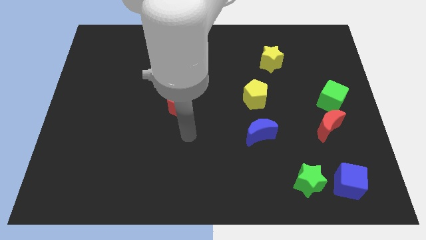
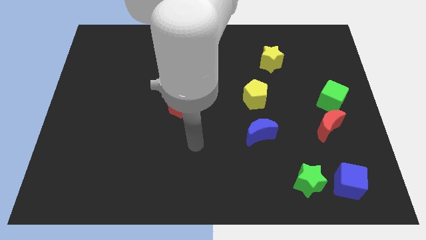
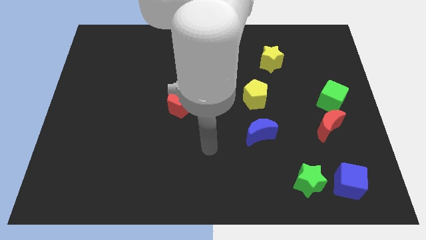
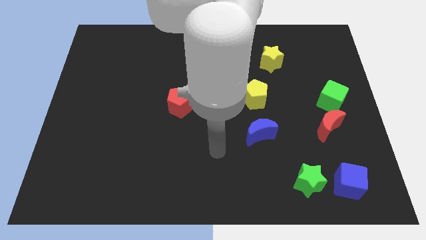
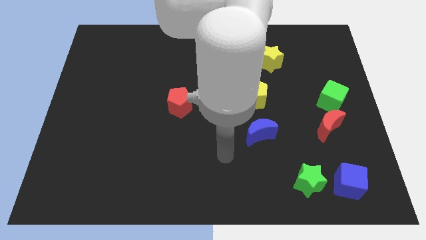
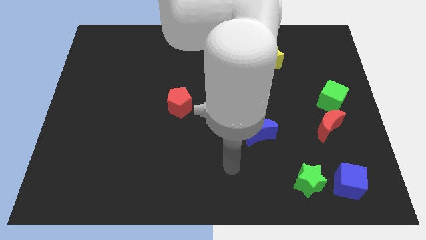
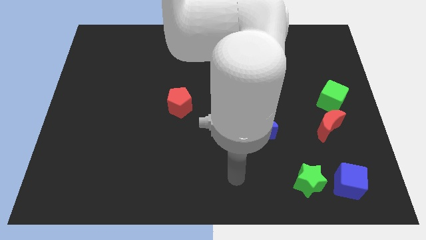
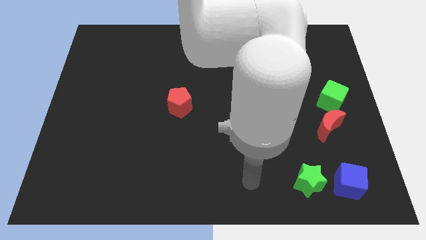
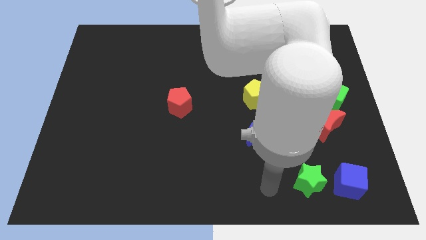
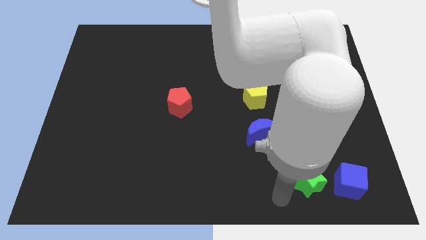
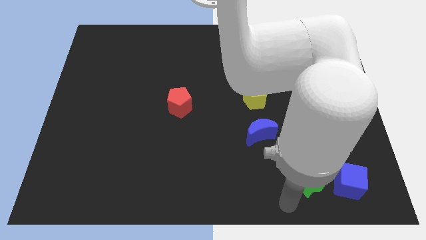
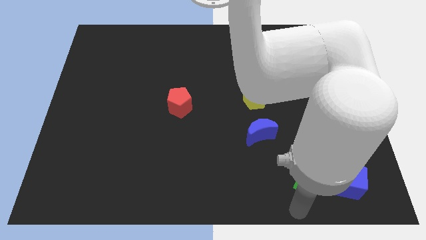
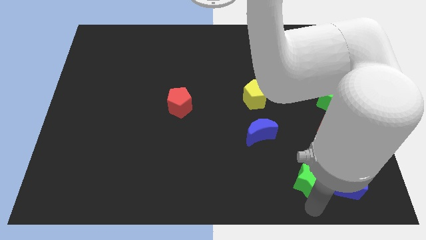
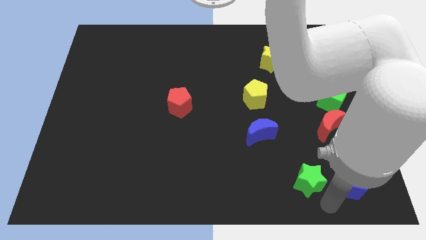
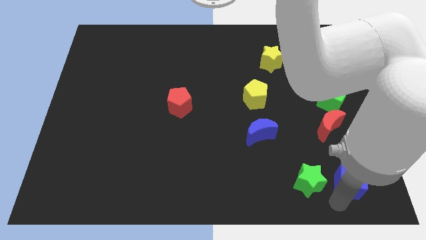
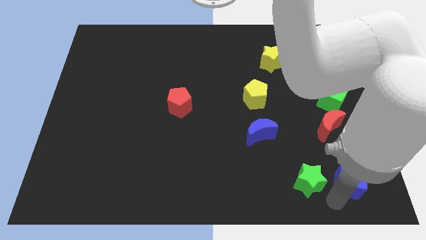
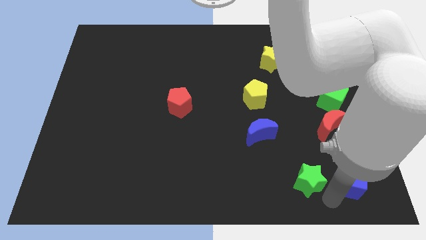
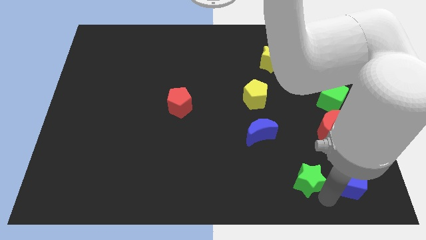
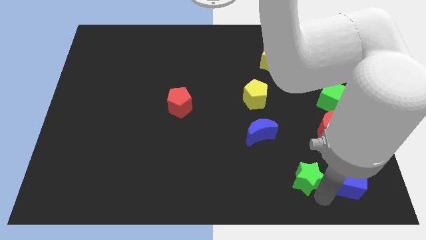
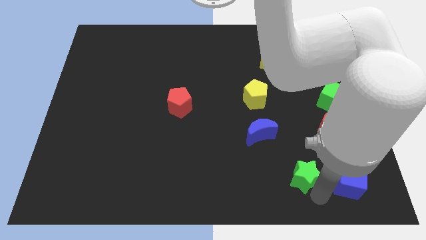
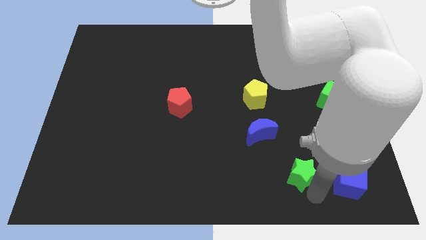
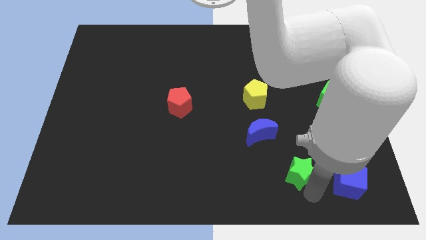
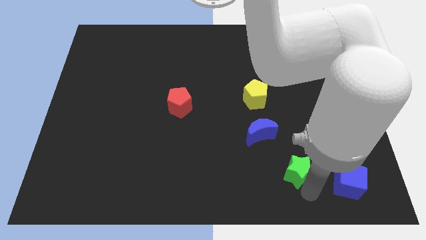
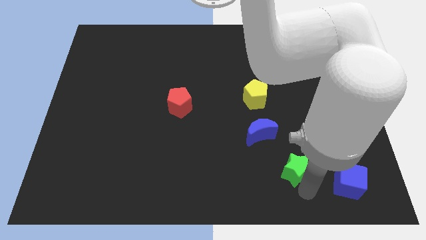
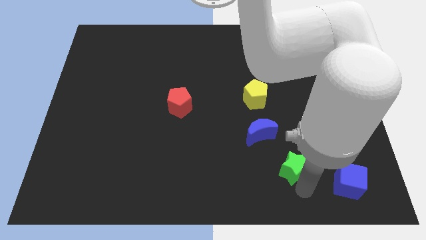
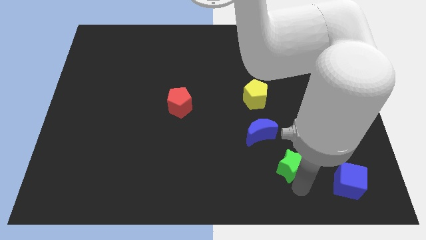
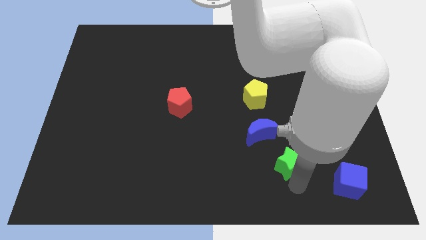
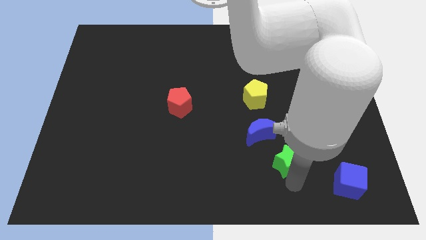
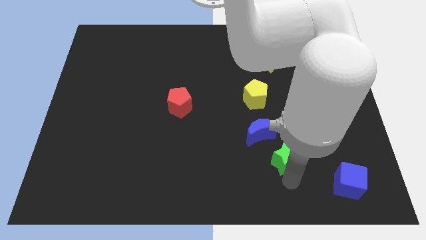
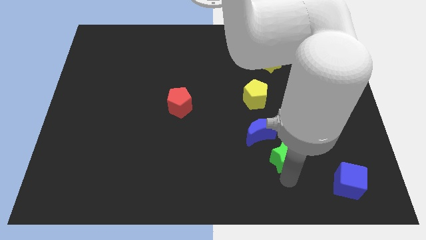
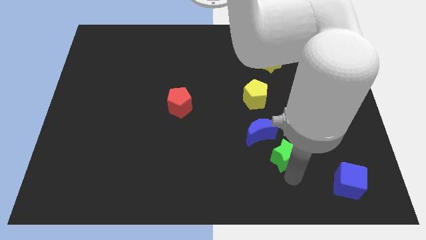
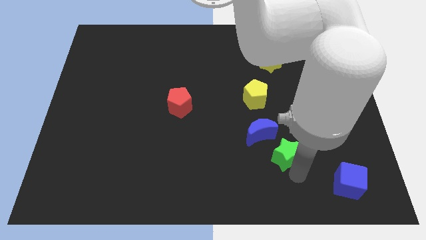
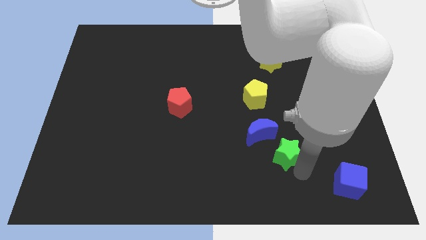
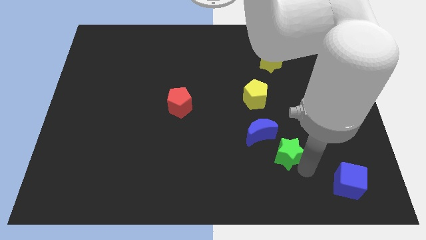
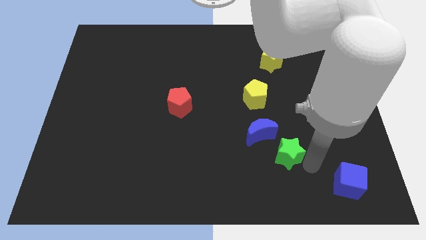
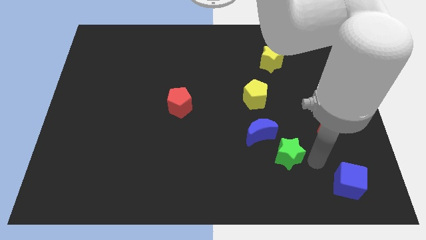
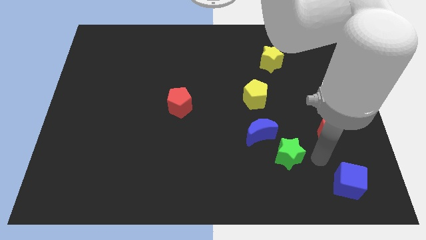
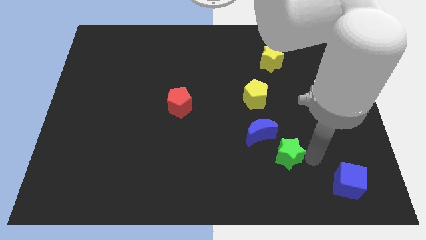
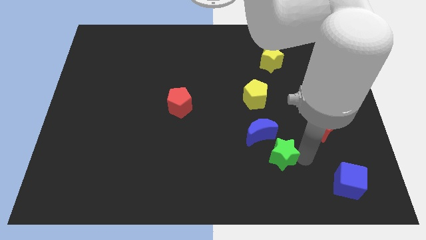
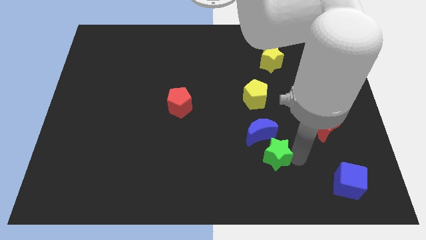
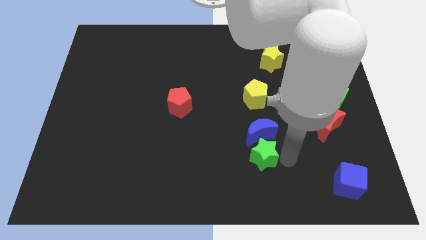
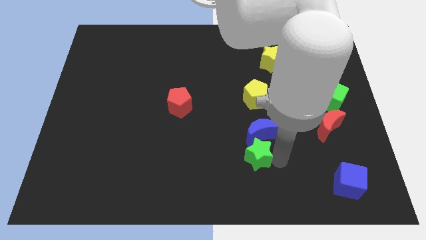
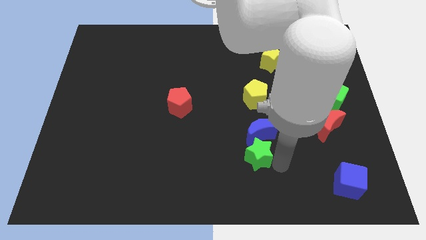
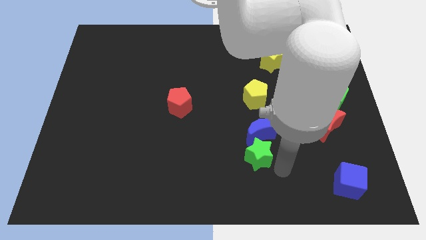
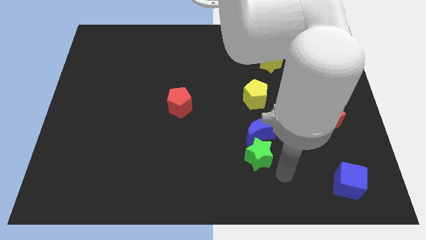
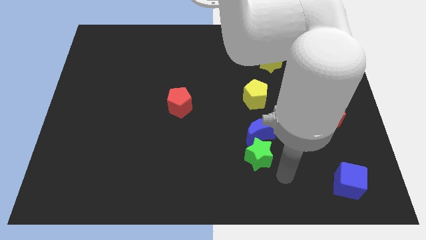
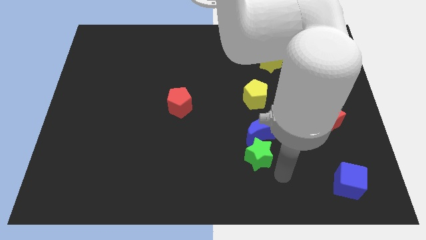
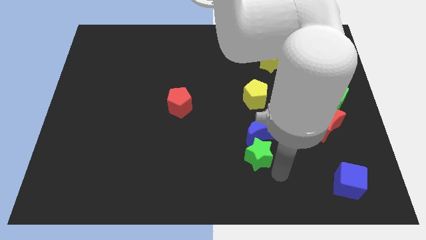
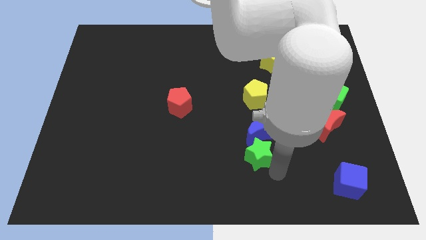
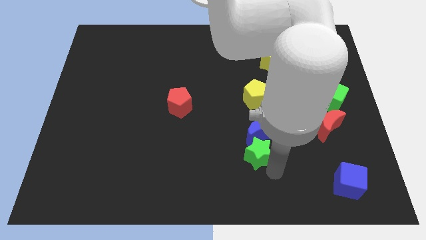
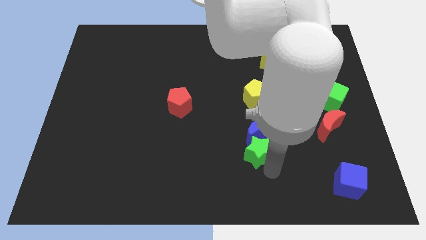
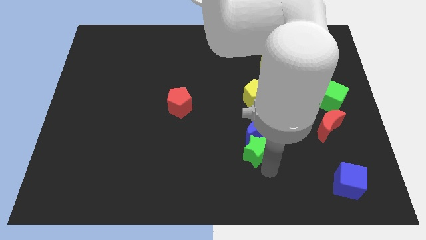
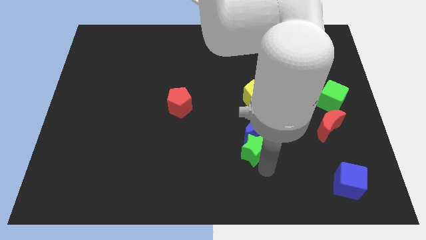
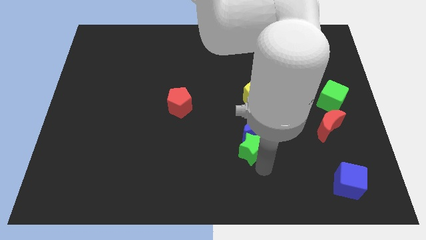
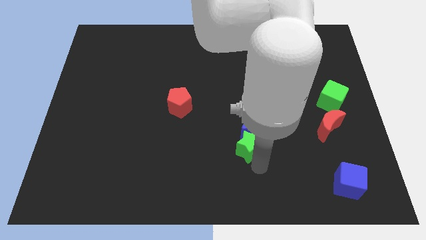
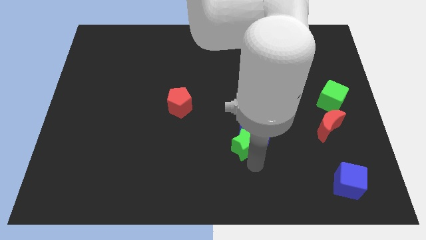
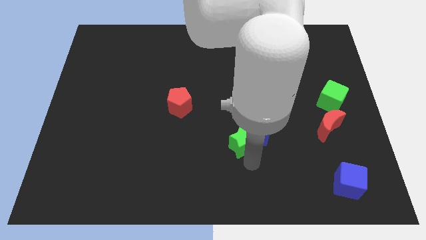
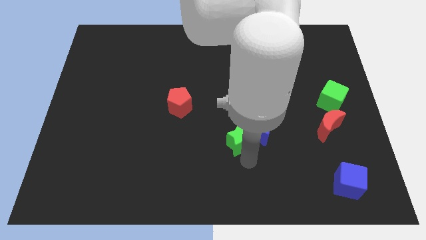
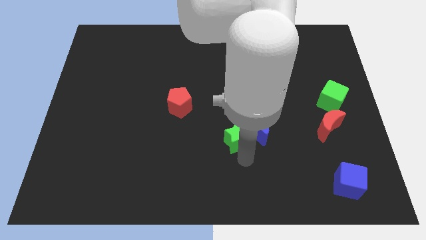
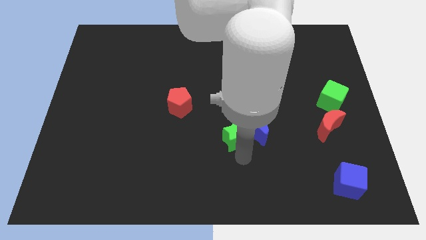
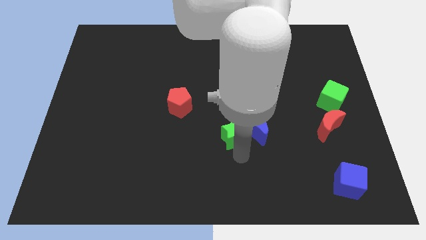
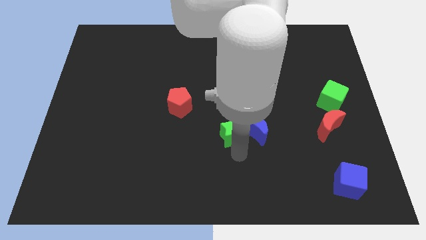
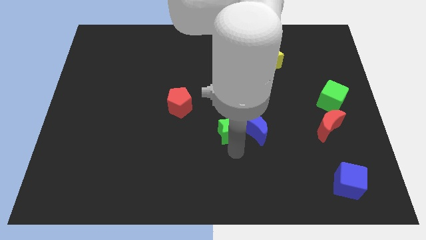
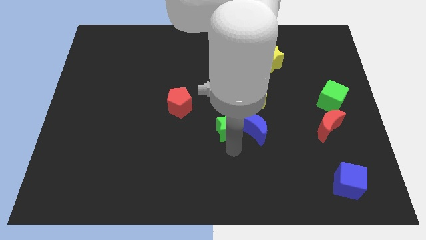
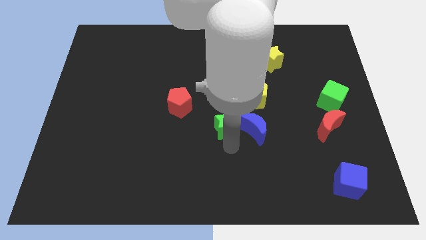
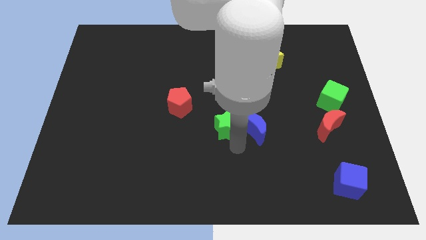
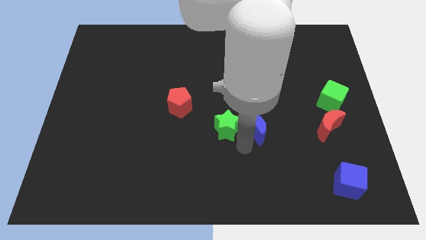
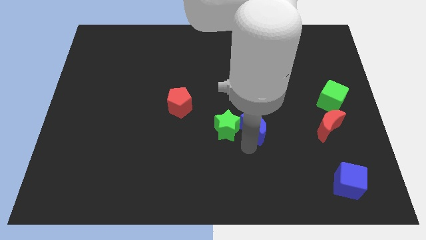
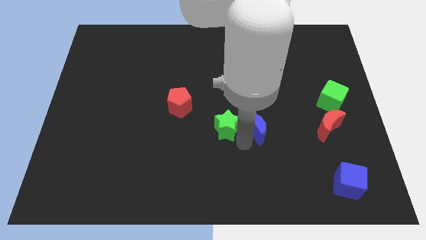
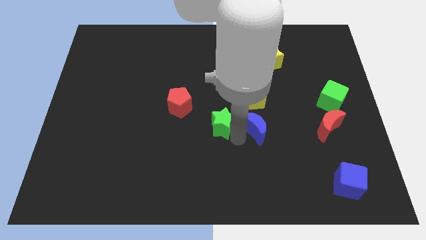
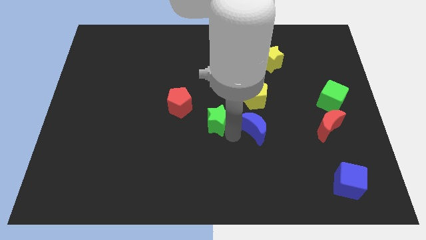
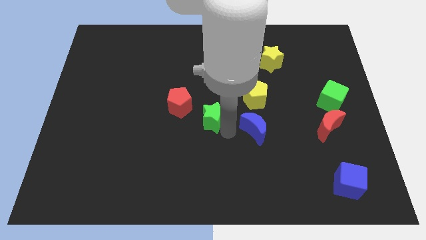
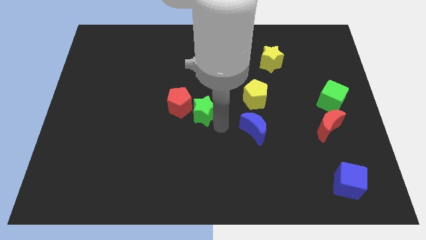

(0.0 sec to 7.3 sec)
slide the green star close to the red pentagon

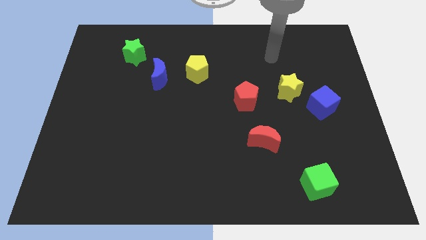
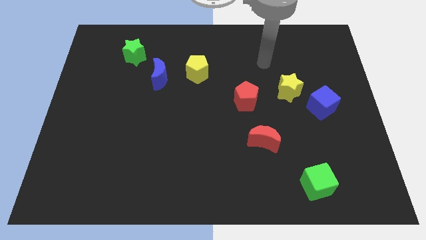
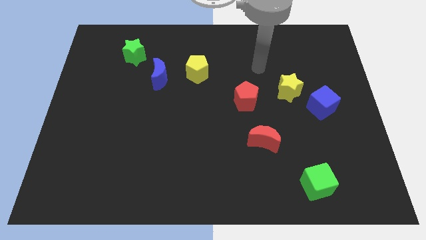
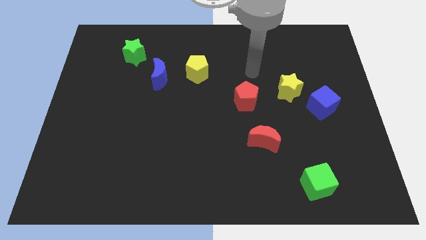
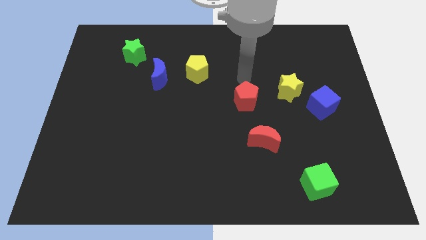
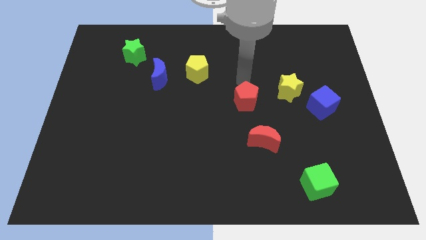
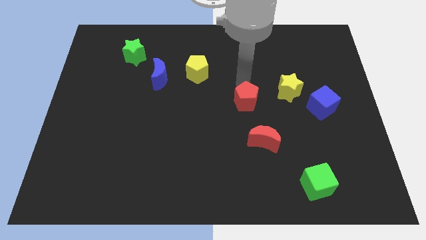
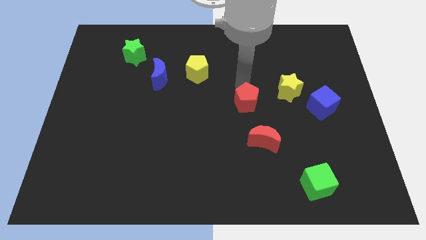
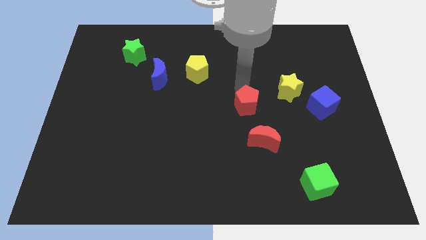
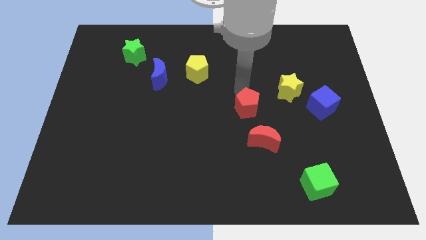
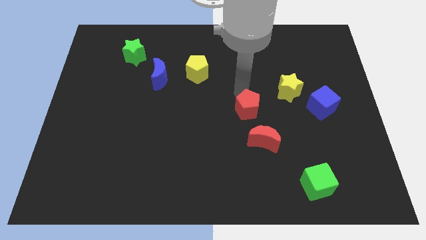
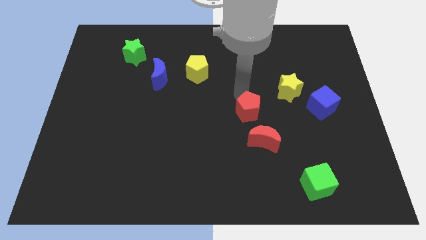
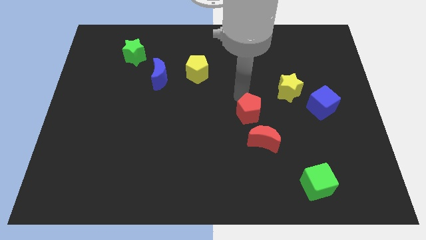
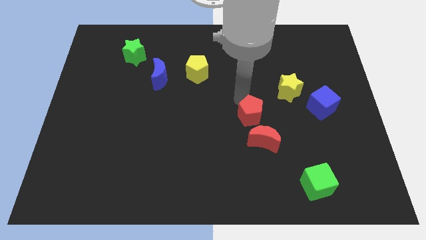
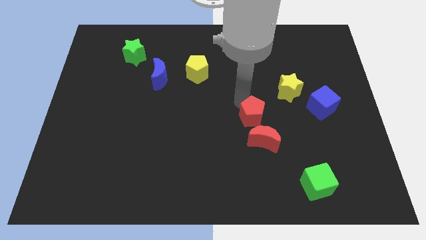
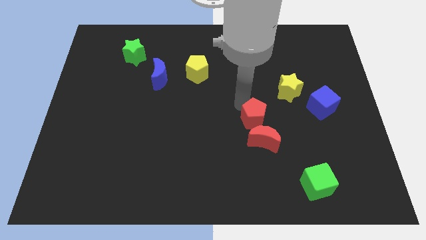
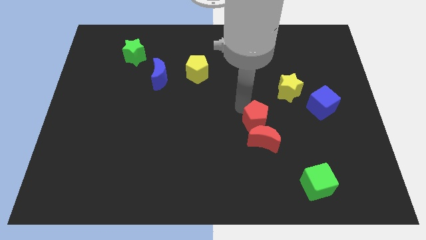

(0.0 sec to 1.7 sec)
move the red pentagon to the red moon
